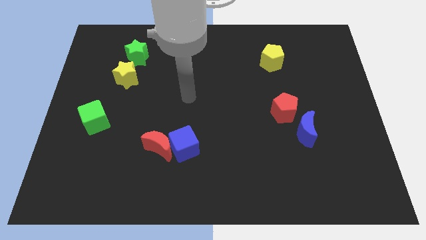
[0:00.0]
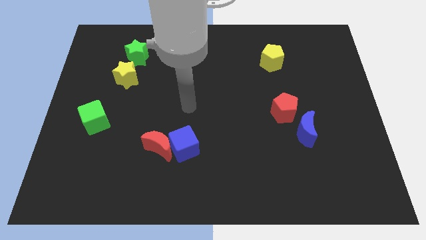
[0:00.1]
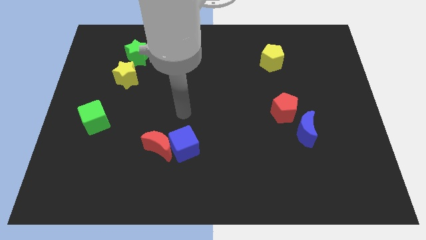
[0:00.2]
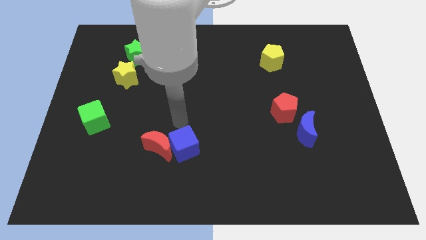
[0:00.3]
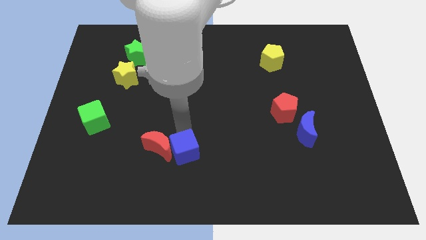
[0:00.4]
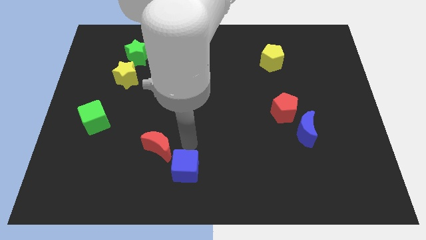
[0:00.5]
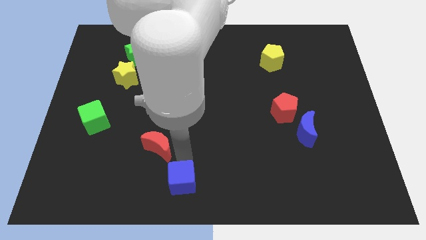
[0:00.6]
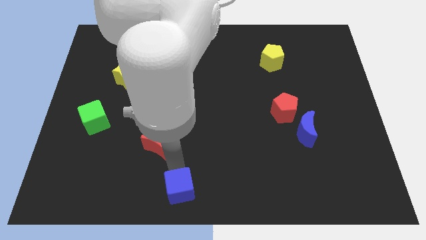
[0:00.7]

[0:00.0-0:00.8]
pull the red moon apart from the blue cube

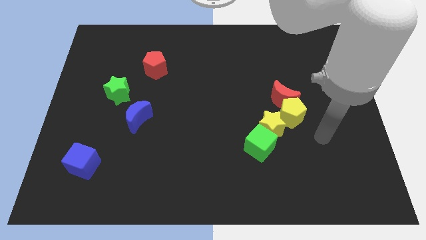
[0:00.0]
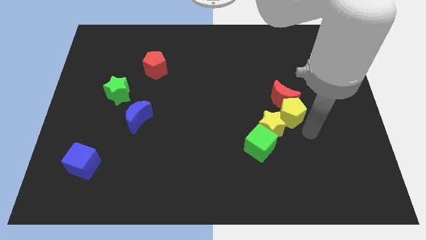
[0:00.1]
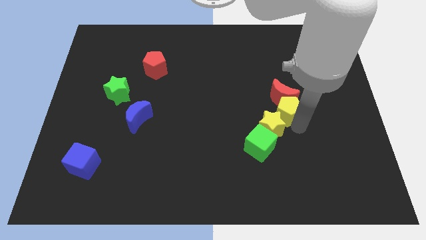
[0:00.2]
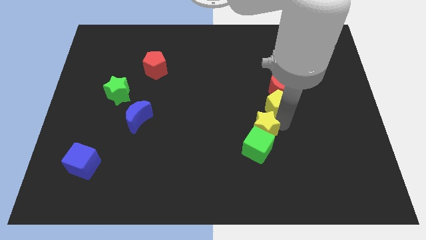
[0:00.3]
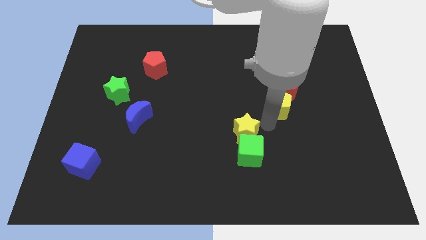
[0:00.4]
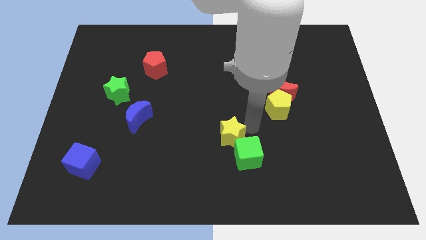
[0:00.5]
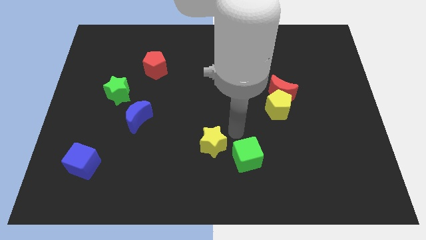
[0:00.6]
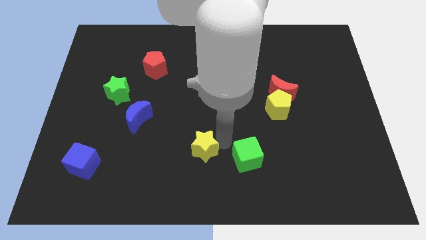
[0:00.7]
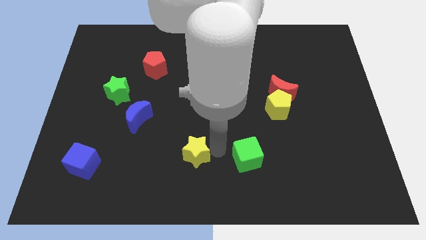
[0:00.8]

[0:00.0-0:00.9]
separate the green cube from the yellow star

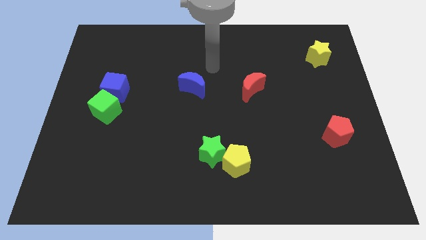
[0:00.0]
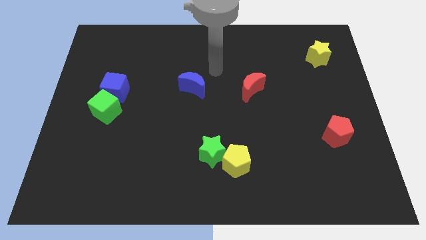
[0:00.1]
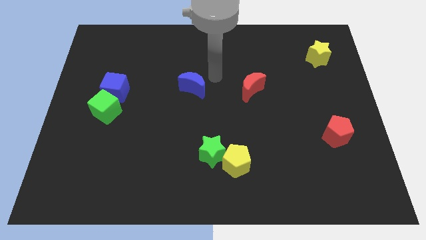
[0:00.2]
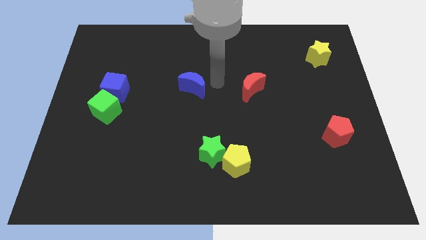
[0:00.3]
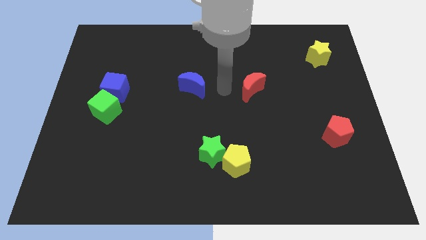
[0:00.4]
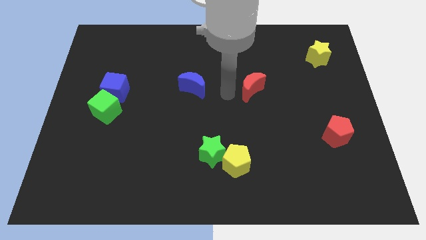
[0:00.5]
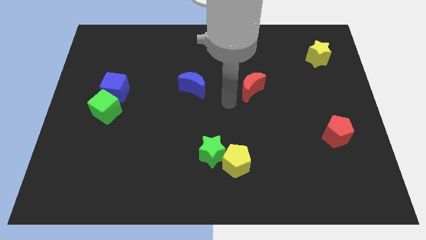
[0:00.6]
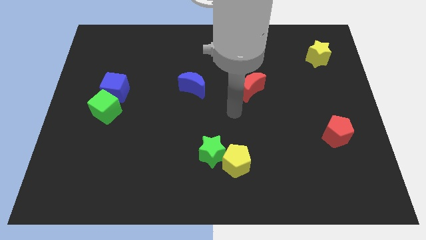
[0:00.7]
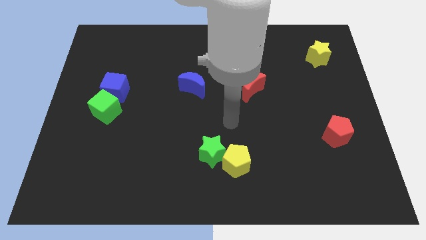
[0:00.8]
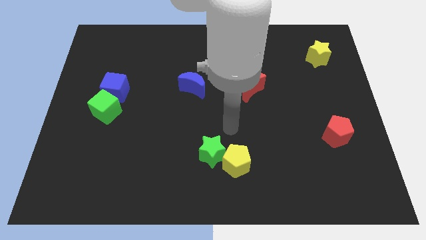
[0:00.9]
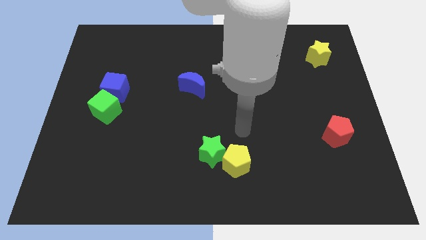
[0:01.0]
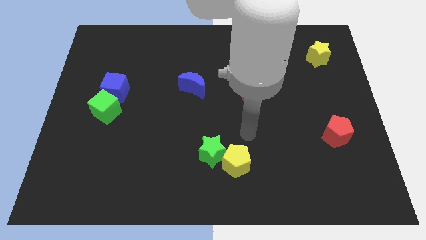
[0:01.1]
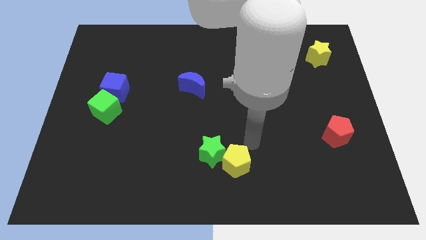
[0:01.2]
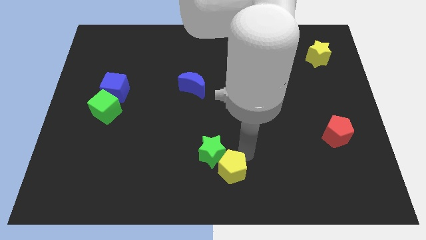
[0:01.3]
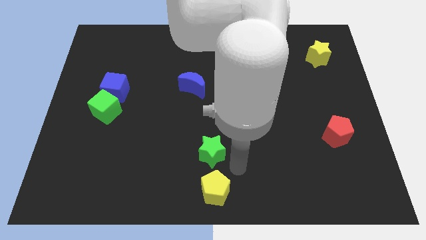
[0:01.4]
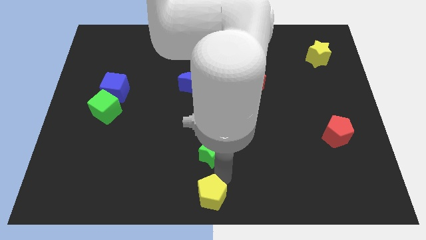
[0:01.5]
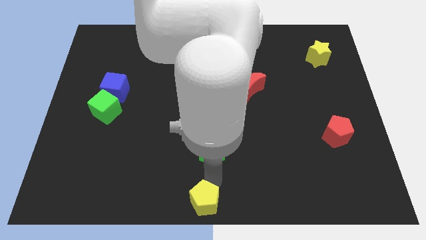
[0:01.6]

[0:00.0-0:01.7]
move the green star away from the yellow pentagon

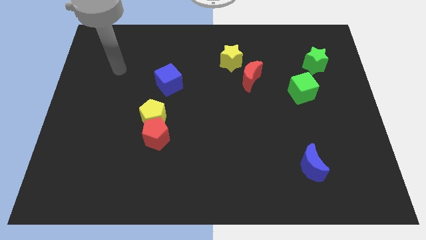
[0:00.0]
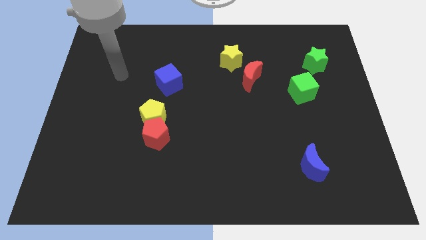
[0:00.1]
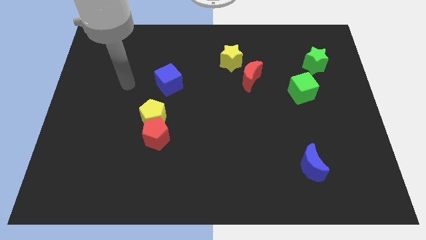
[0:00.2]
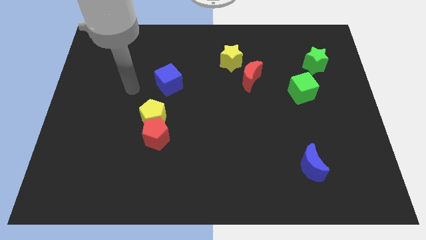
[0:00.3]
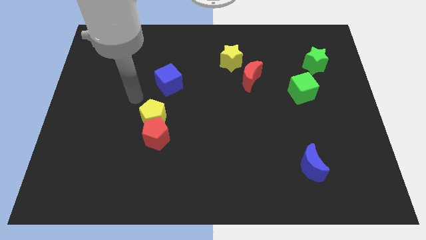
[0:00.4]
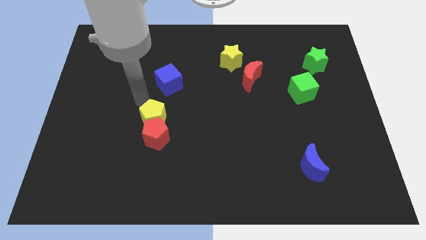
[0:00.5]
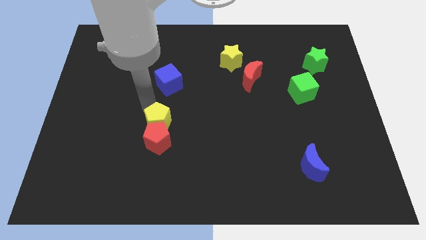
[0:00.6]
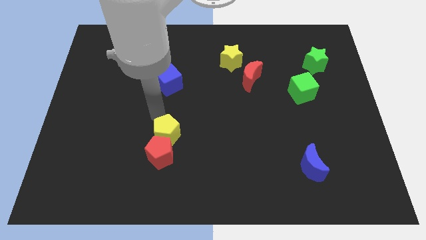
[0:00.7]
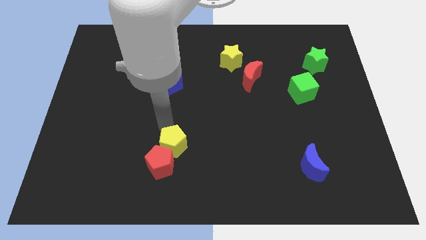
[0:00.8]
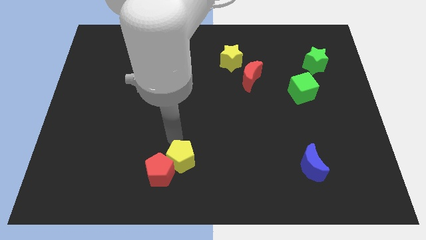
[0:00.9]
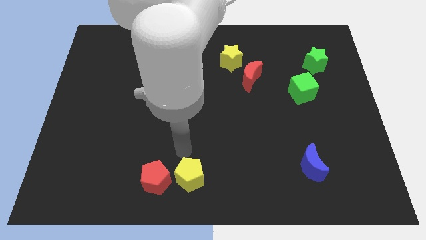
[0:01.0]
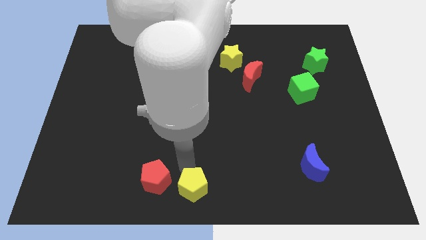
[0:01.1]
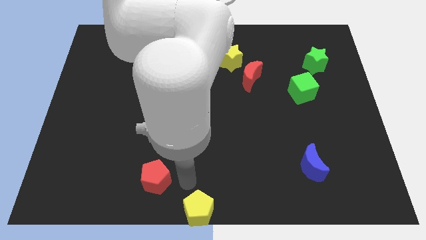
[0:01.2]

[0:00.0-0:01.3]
separate the red pentagon from the yellow pentagon

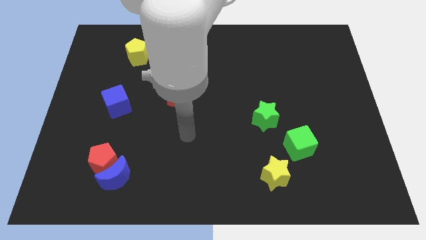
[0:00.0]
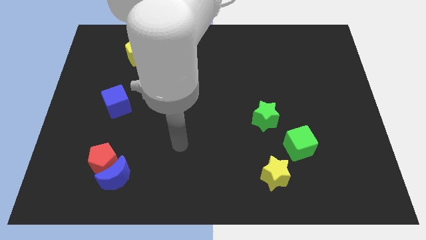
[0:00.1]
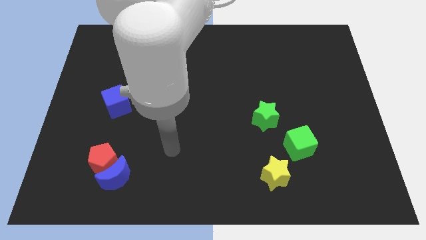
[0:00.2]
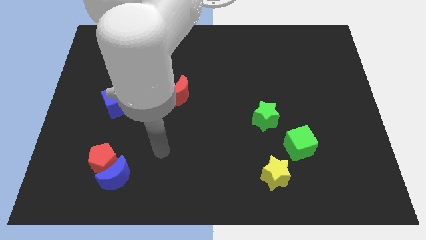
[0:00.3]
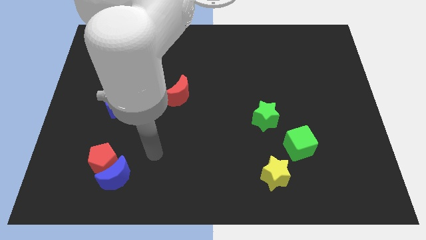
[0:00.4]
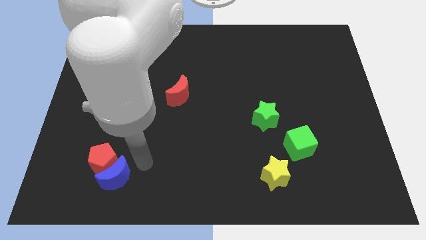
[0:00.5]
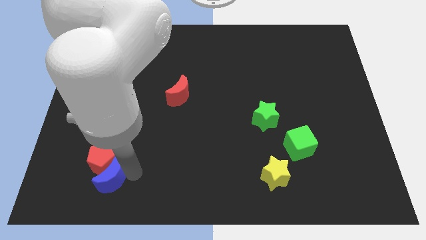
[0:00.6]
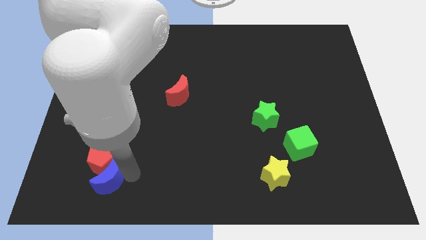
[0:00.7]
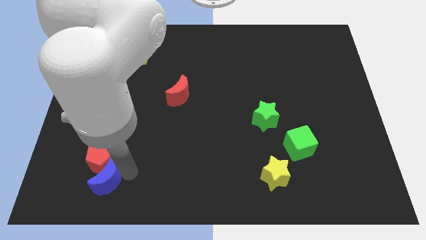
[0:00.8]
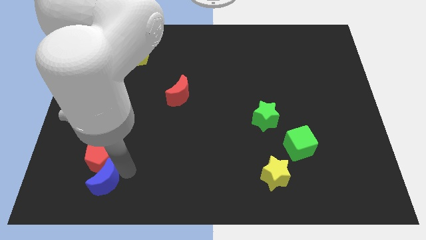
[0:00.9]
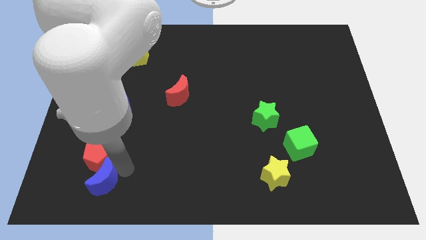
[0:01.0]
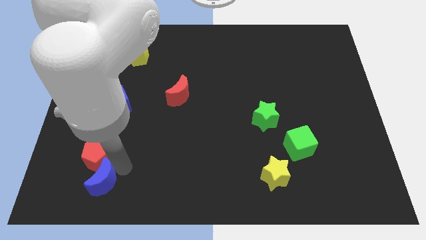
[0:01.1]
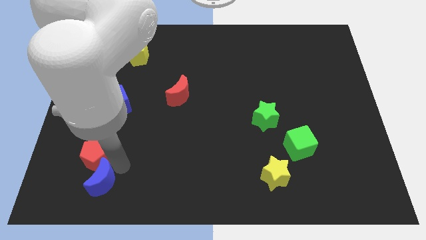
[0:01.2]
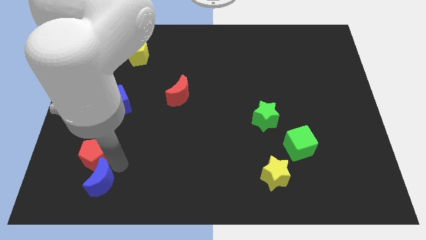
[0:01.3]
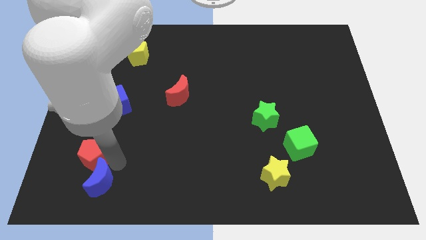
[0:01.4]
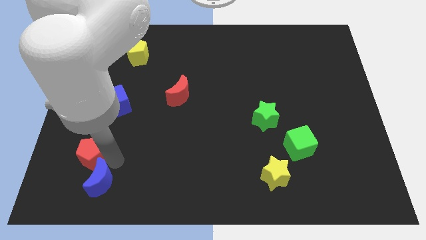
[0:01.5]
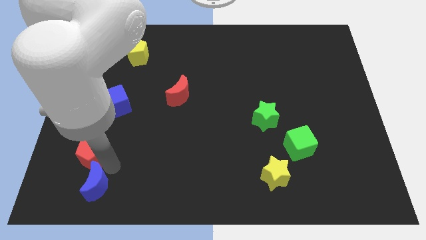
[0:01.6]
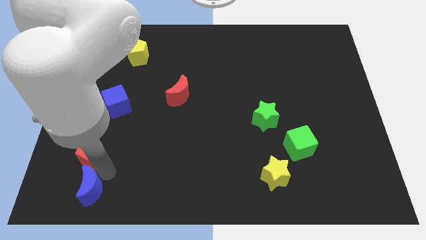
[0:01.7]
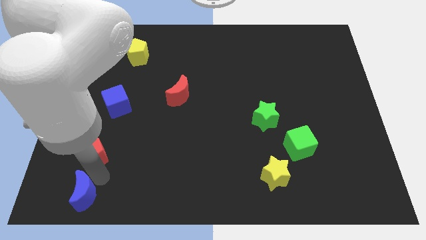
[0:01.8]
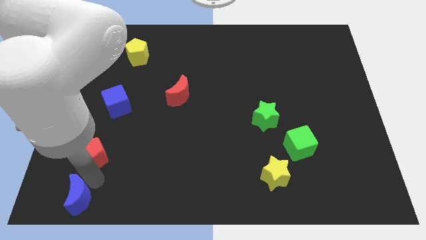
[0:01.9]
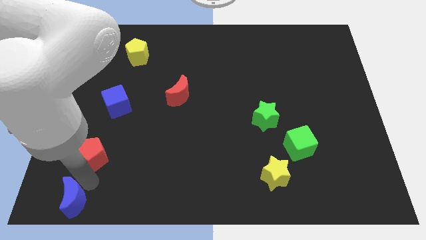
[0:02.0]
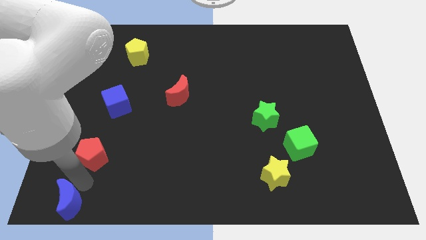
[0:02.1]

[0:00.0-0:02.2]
move the red pentagon away from the blue moon

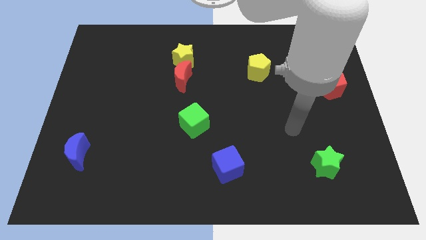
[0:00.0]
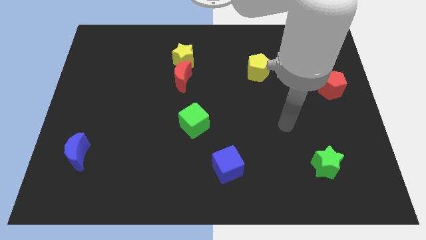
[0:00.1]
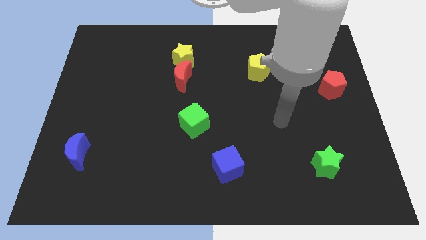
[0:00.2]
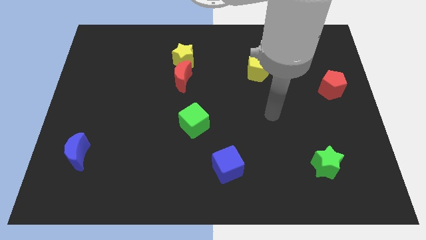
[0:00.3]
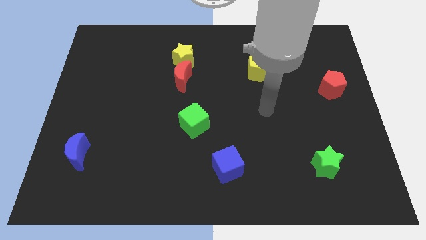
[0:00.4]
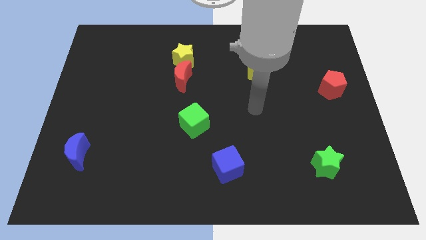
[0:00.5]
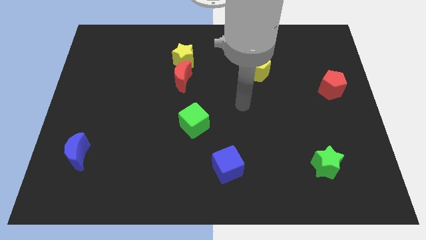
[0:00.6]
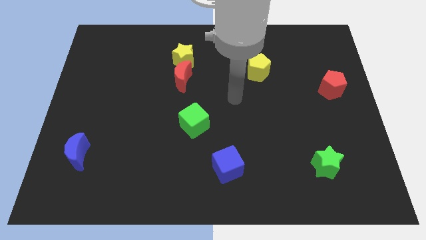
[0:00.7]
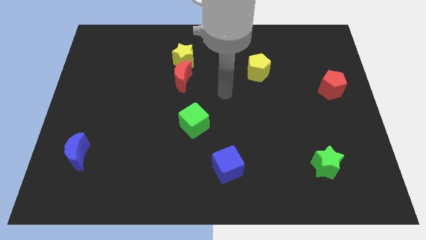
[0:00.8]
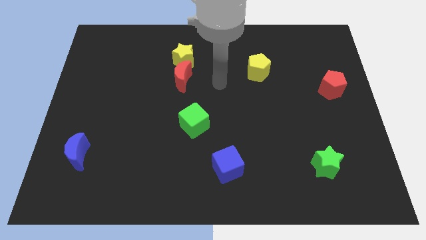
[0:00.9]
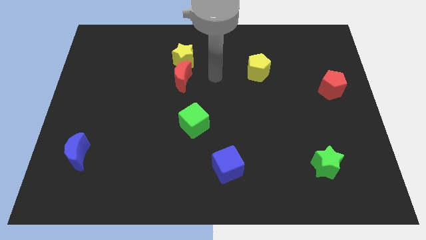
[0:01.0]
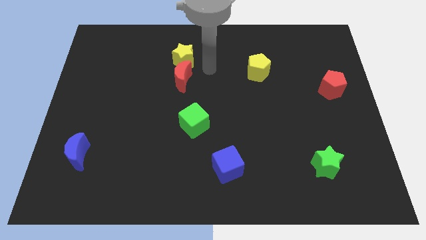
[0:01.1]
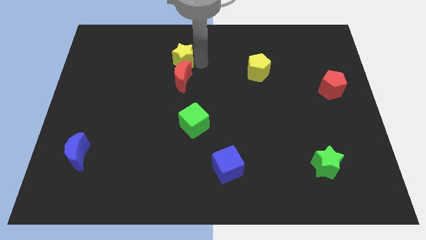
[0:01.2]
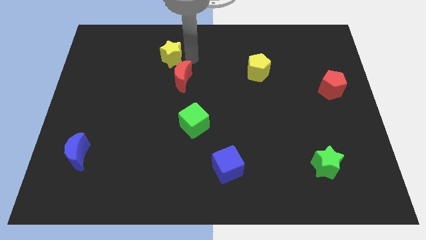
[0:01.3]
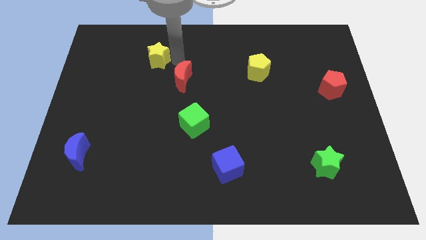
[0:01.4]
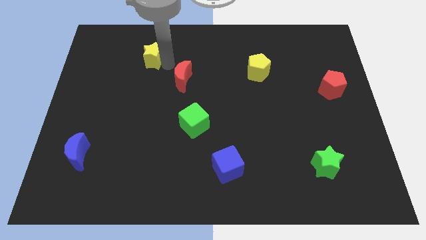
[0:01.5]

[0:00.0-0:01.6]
pull the red moon apart from the yellow star

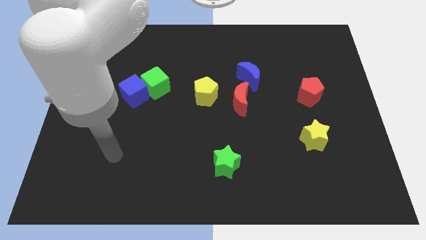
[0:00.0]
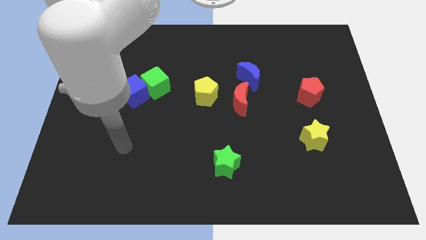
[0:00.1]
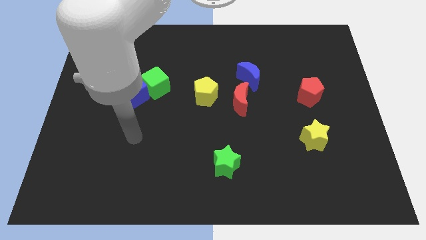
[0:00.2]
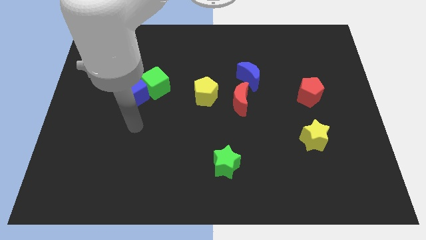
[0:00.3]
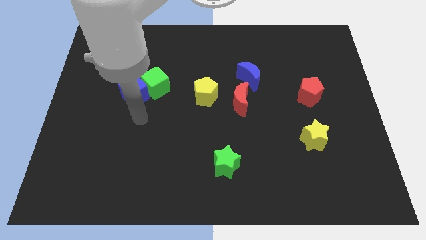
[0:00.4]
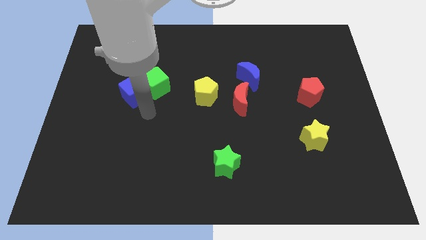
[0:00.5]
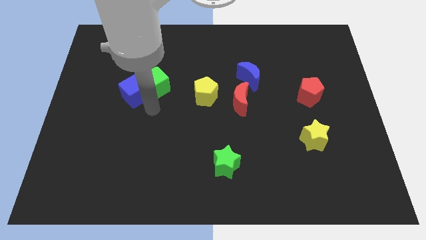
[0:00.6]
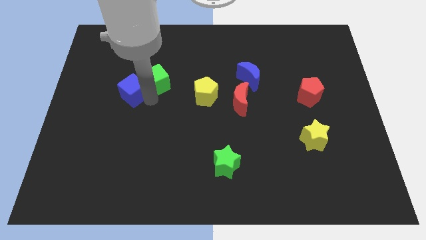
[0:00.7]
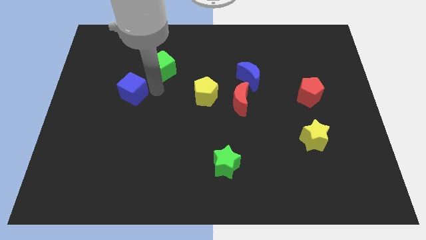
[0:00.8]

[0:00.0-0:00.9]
pull the blue cube apart from the green cube
